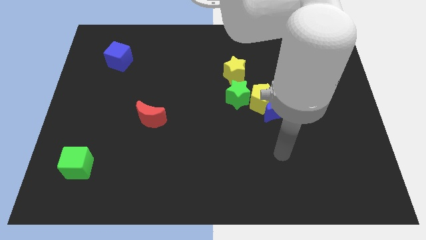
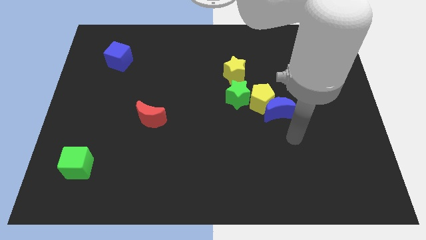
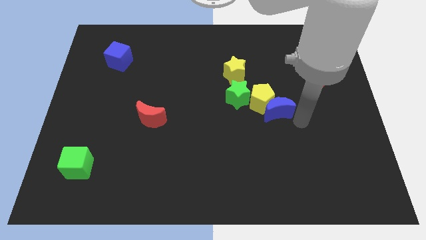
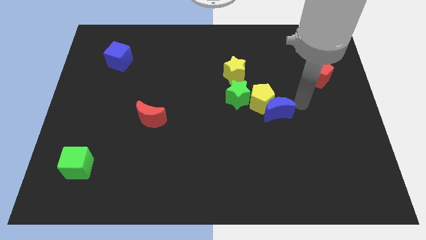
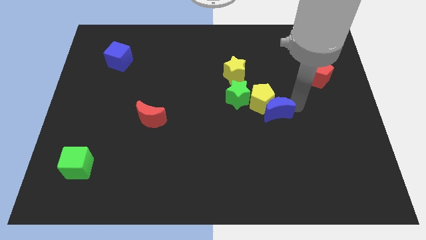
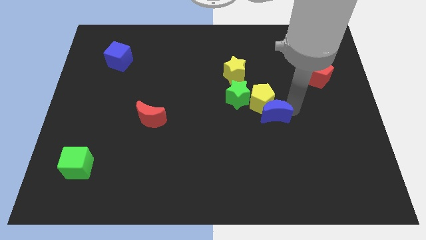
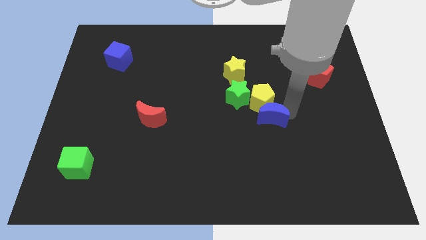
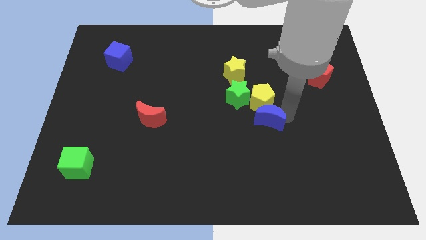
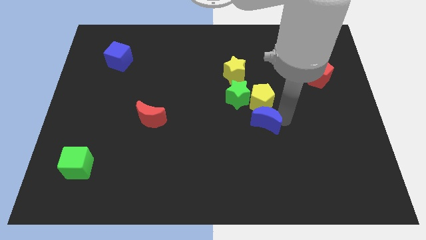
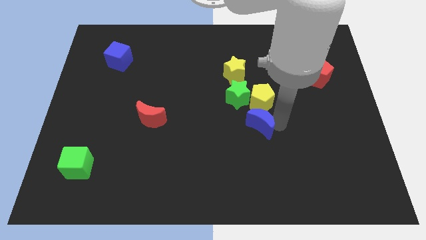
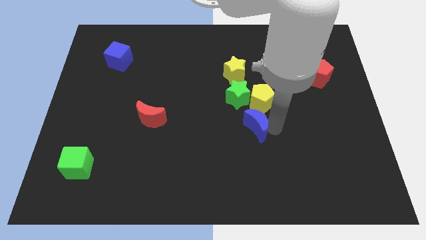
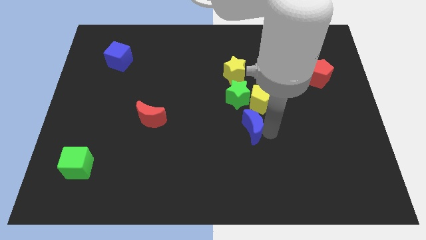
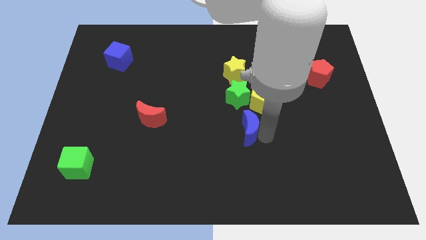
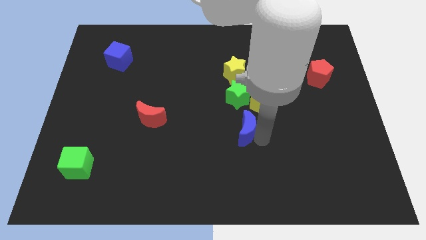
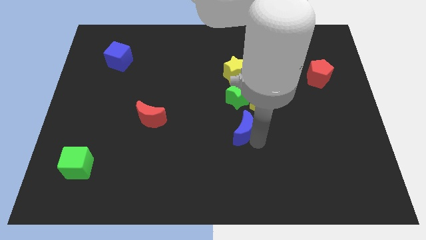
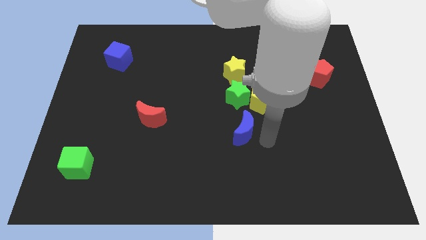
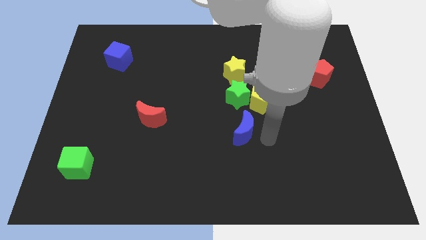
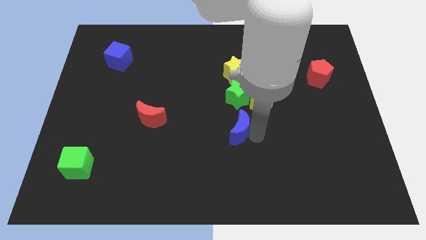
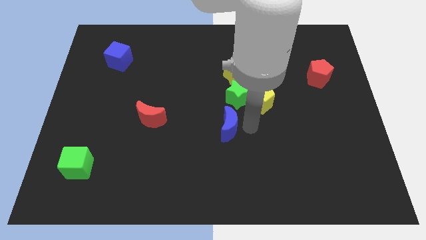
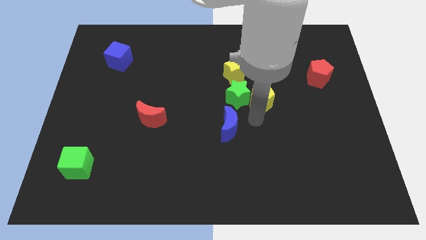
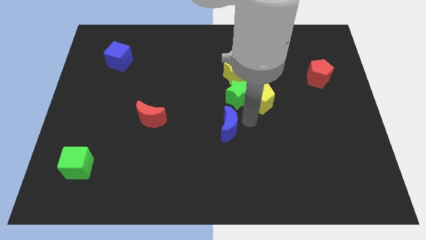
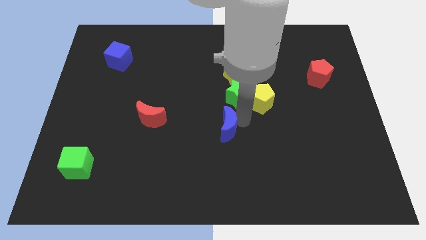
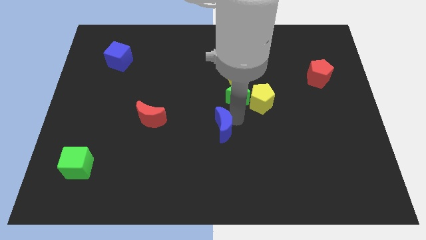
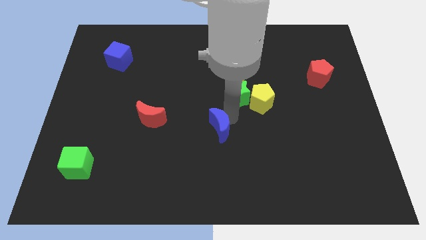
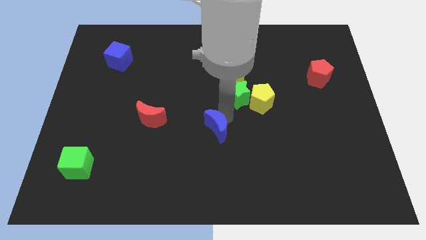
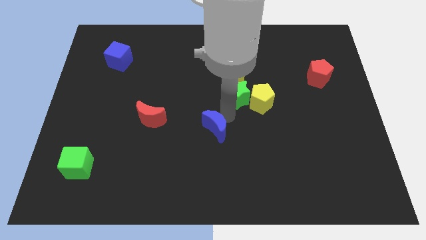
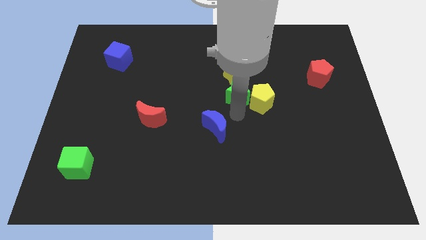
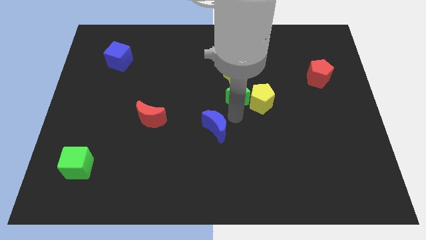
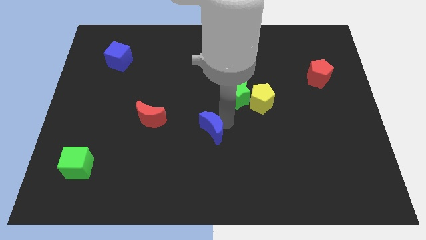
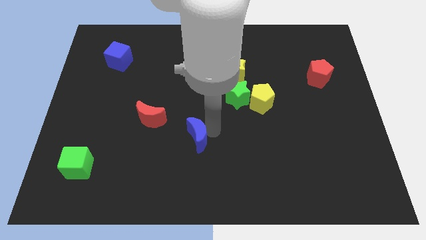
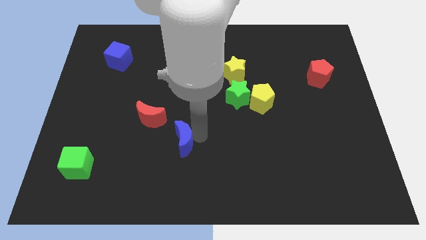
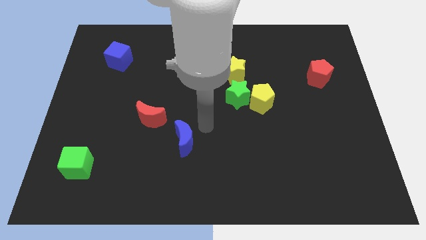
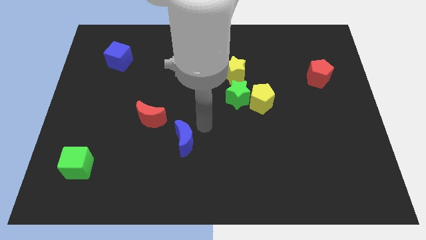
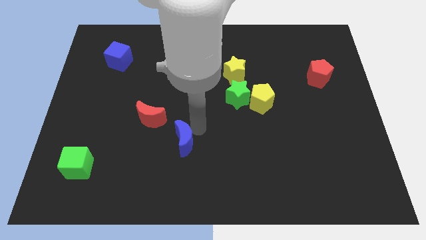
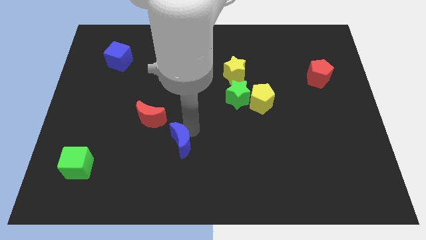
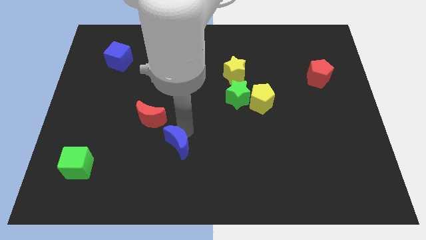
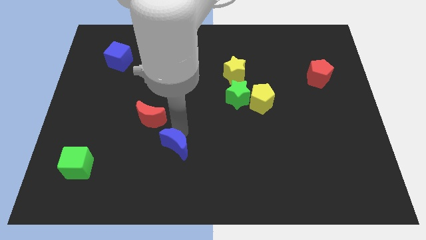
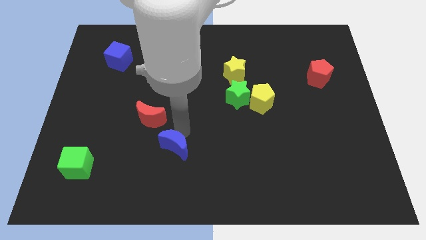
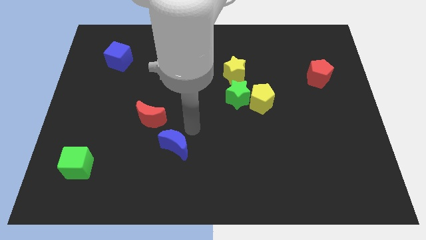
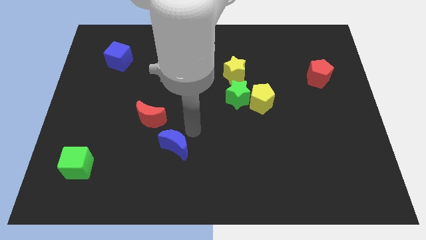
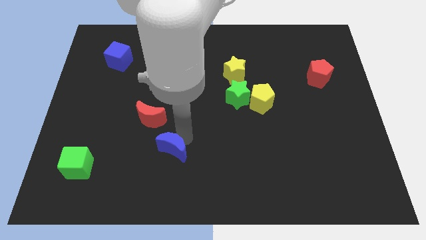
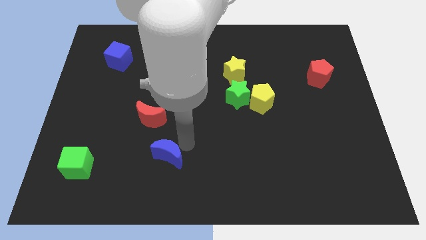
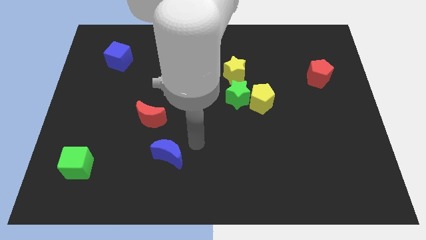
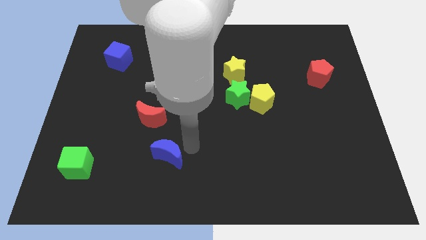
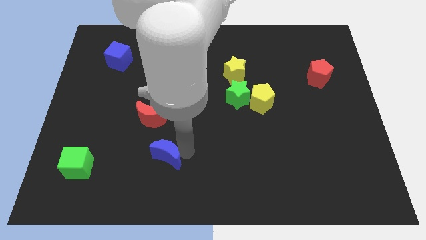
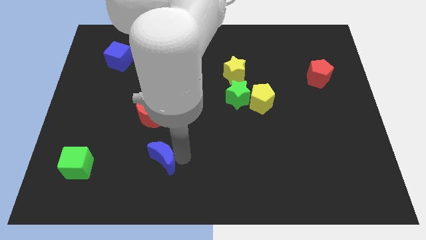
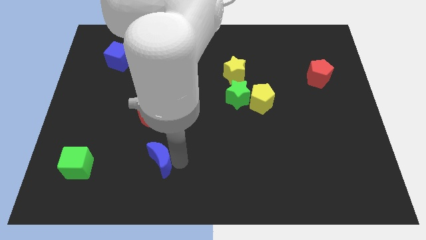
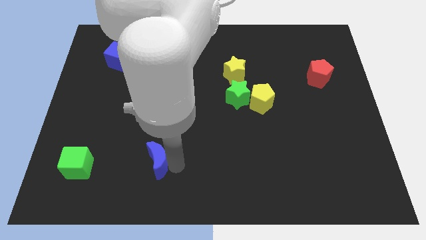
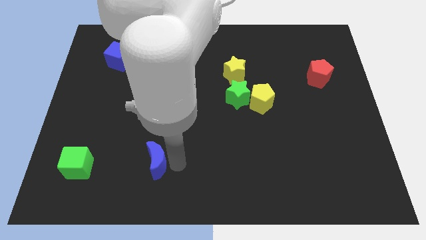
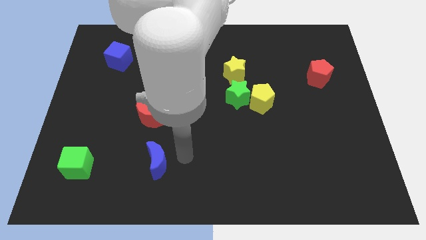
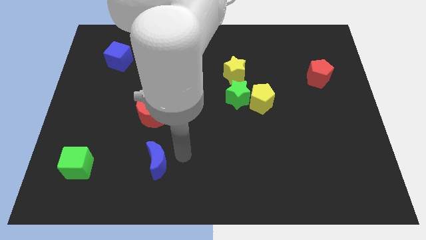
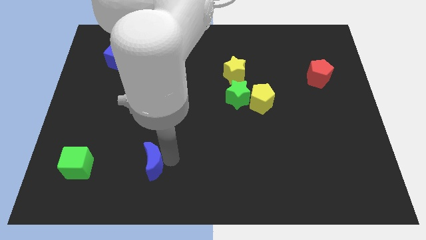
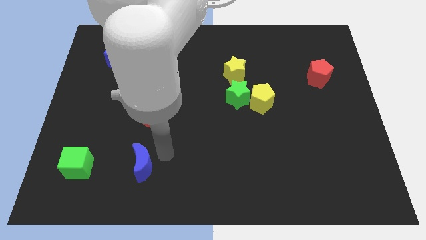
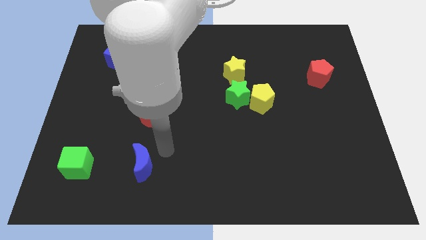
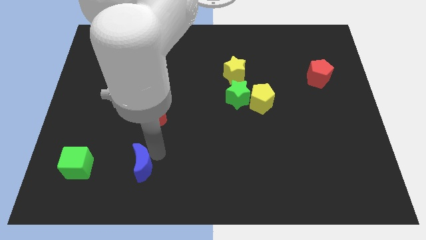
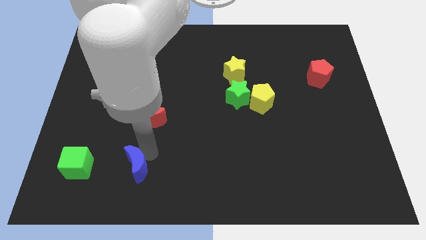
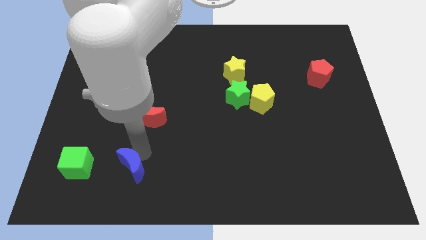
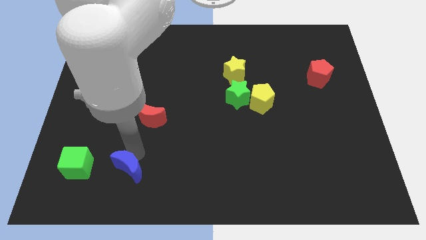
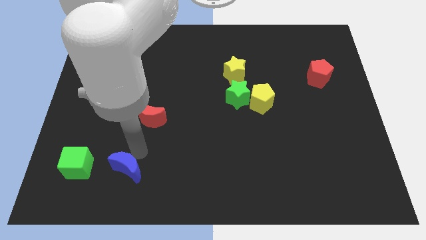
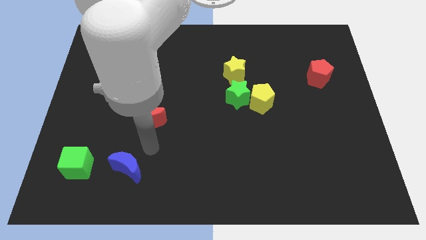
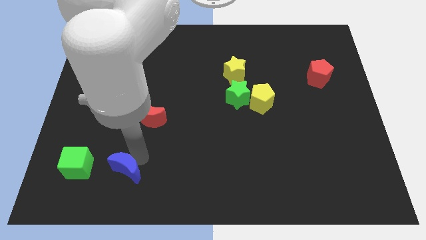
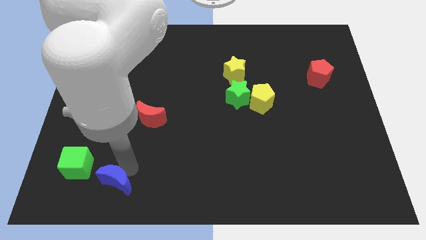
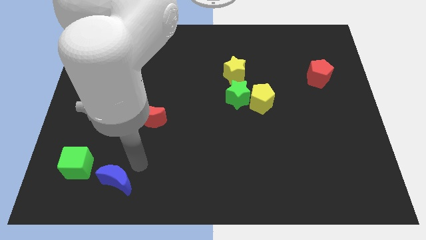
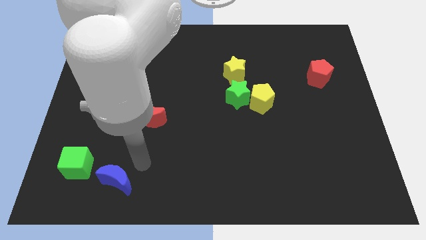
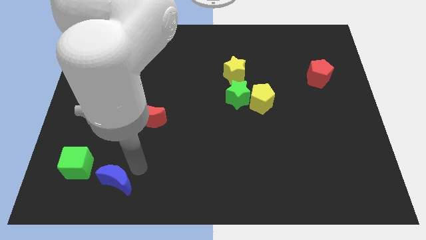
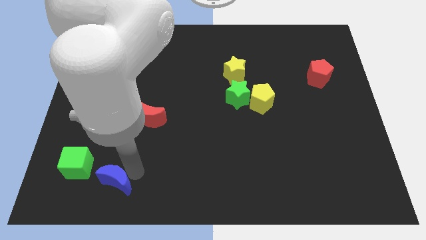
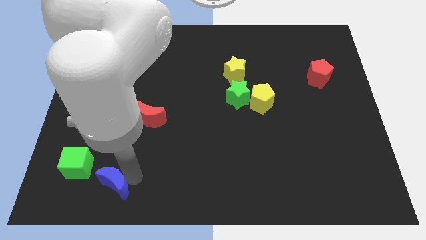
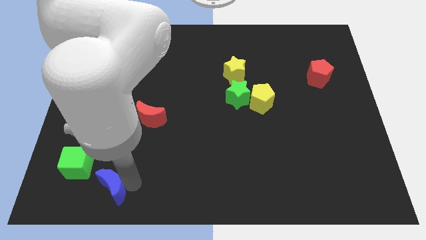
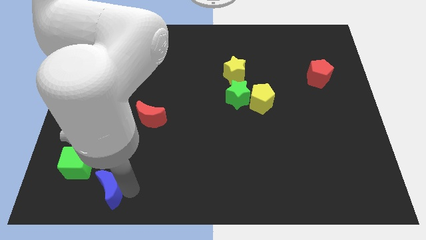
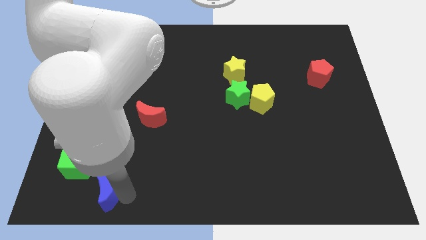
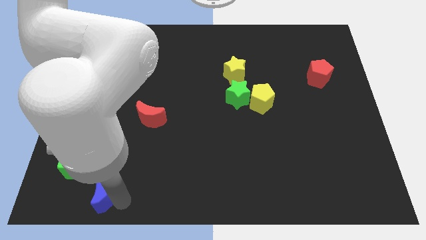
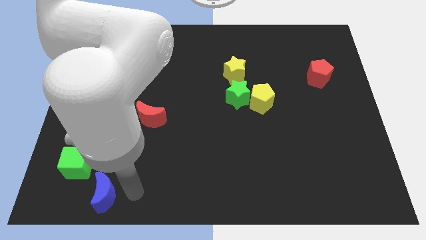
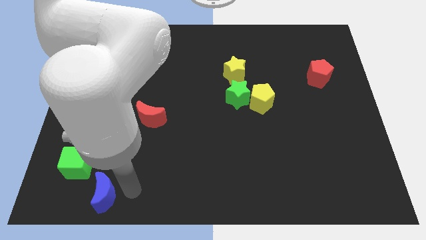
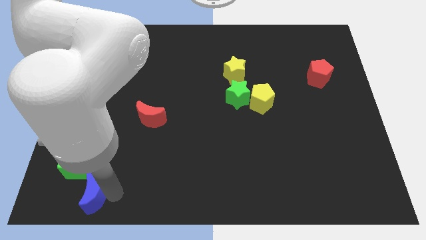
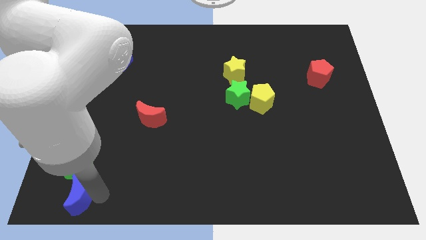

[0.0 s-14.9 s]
push the blue moon to the bottom left corner

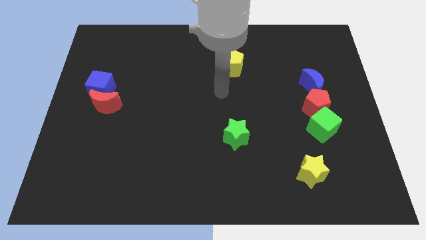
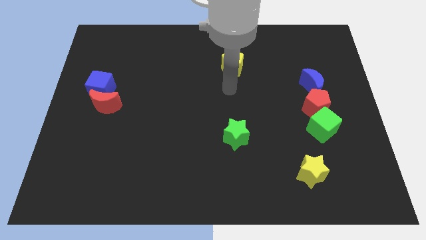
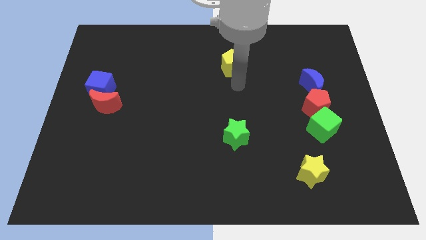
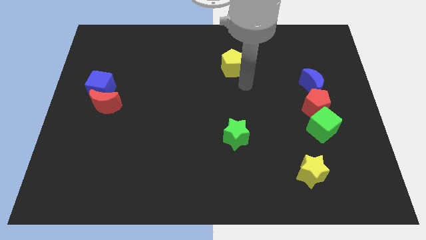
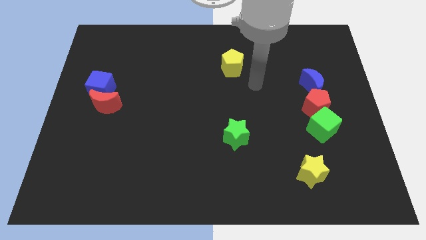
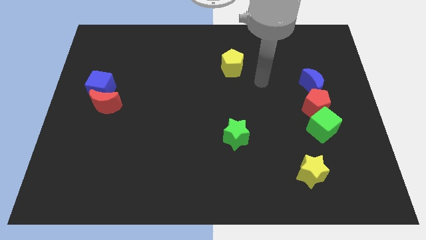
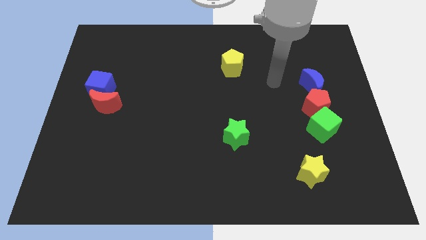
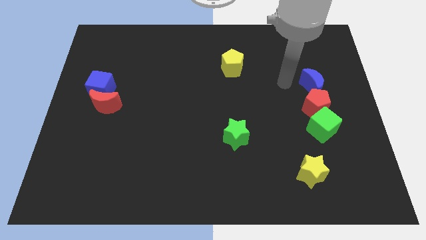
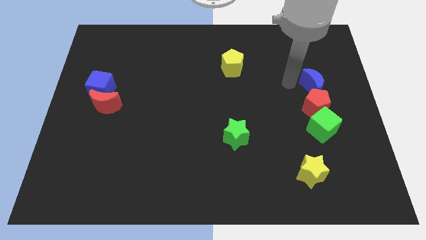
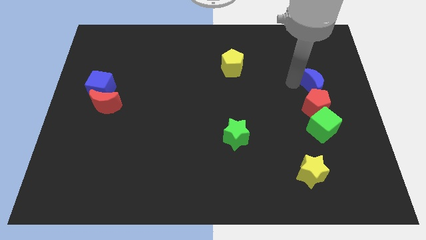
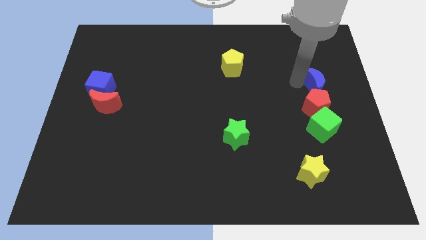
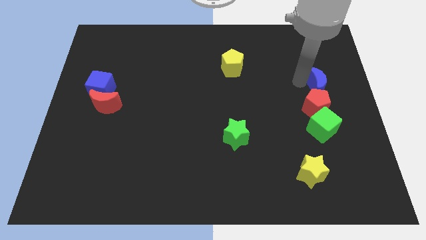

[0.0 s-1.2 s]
move the blue moon to the right side
